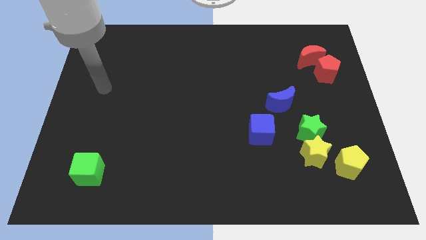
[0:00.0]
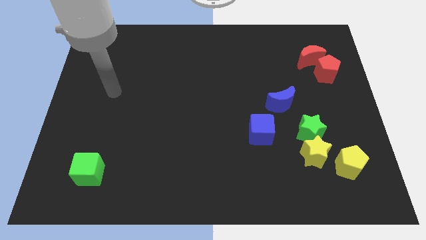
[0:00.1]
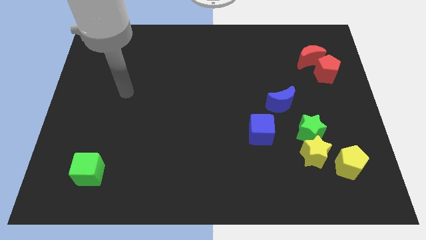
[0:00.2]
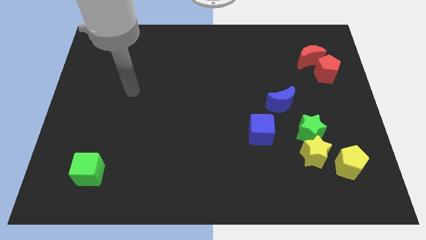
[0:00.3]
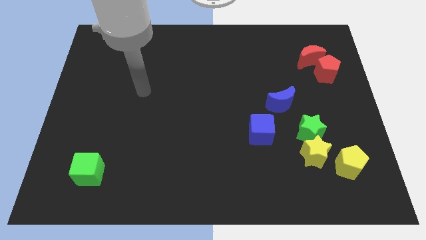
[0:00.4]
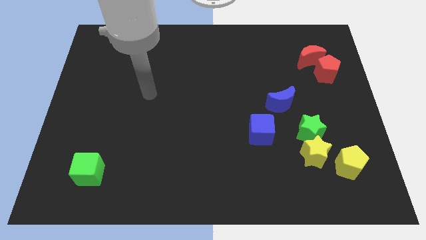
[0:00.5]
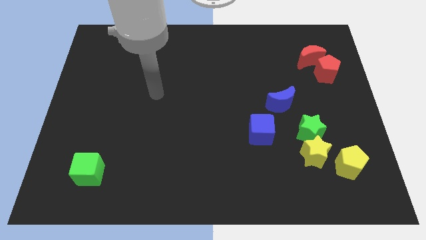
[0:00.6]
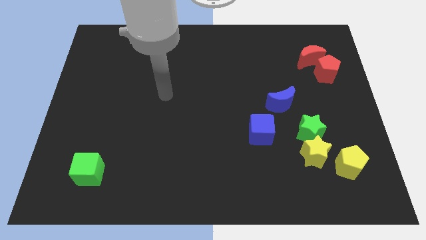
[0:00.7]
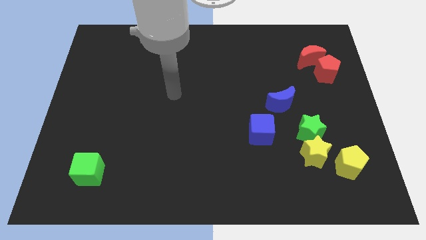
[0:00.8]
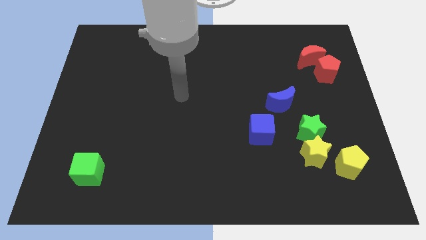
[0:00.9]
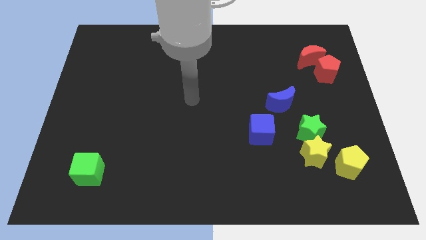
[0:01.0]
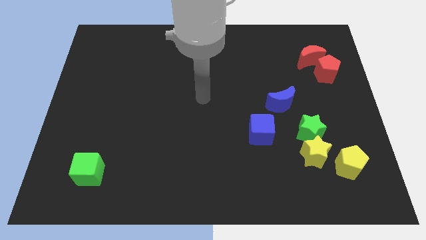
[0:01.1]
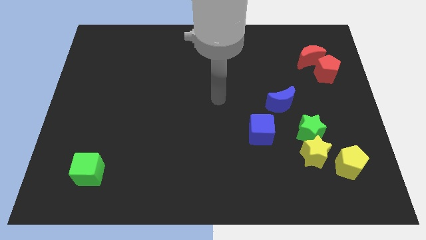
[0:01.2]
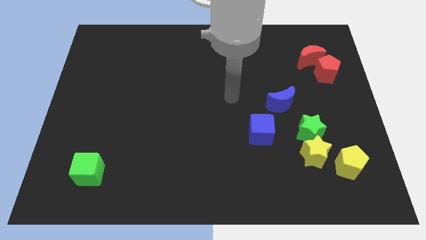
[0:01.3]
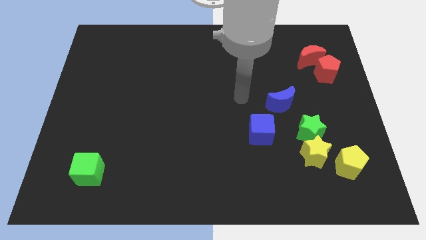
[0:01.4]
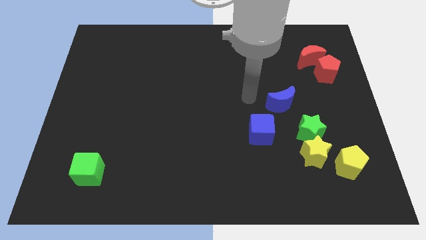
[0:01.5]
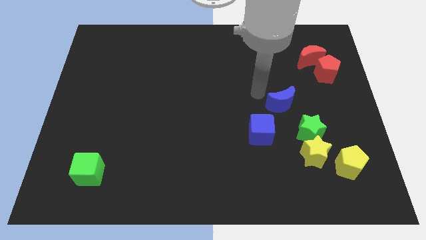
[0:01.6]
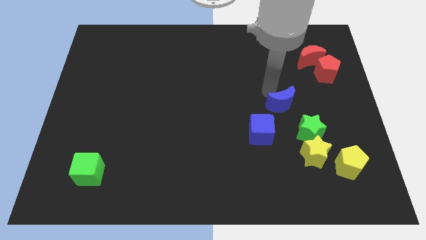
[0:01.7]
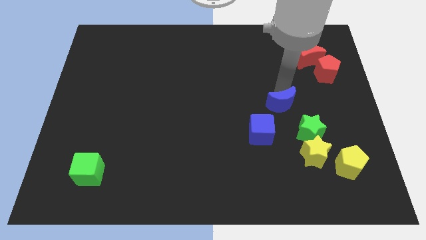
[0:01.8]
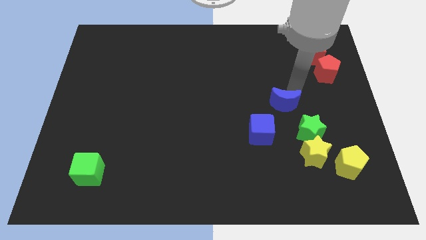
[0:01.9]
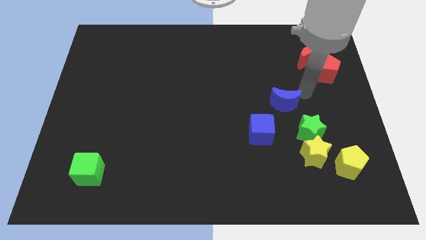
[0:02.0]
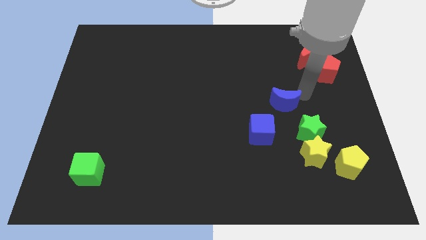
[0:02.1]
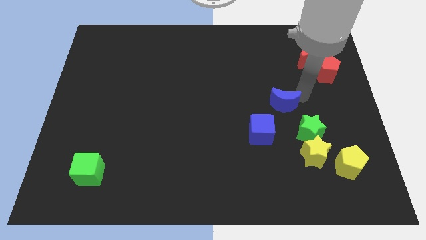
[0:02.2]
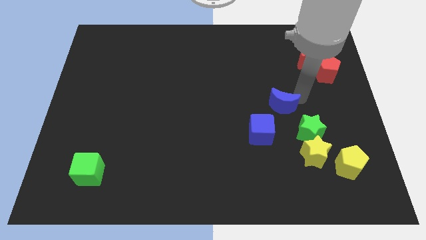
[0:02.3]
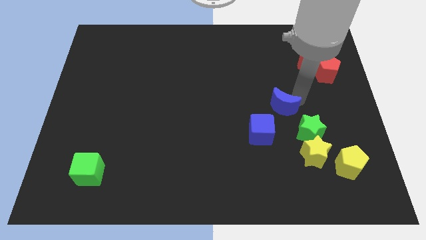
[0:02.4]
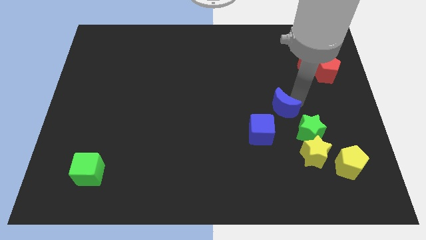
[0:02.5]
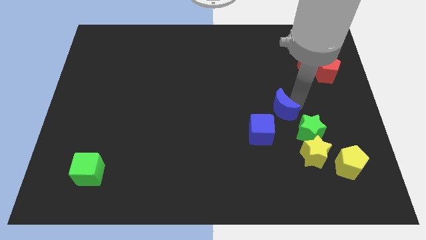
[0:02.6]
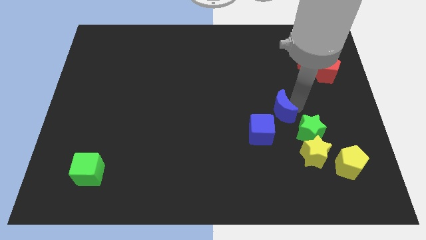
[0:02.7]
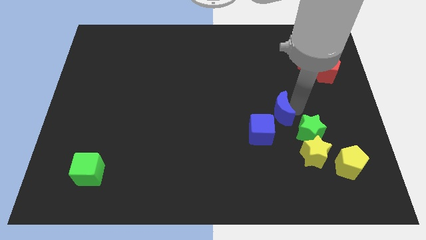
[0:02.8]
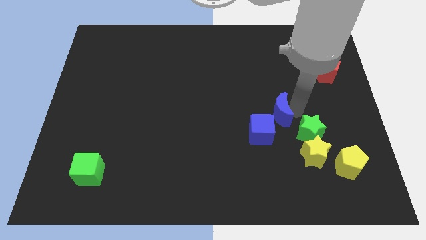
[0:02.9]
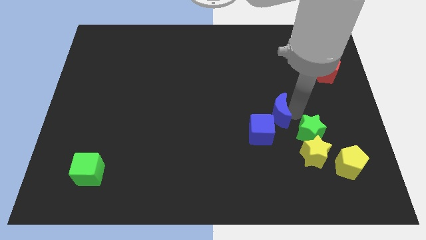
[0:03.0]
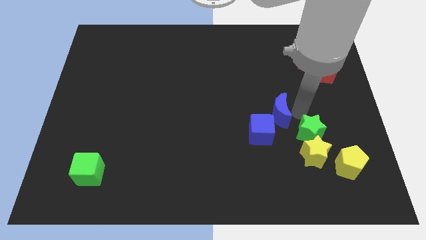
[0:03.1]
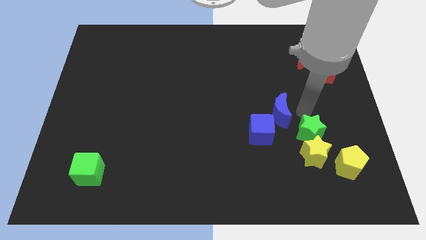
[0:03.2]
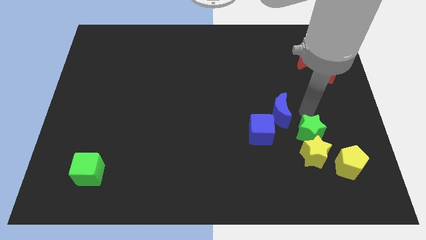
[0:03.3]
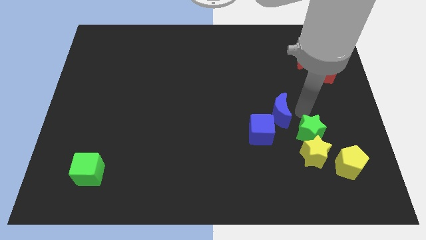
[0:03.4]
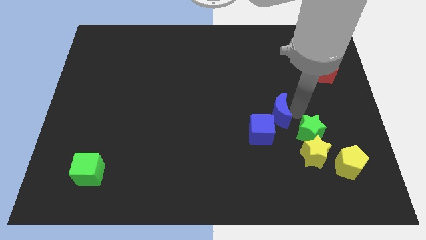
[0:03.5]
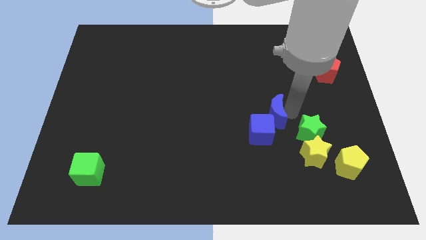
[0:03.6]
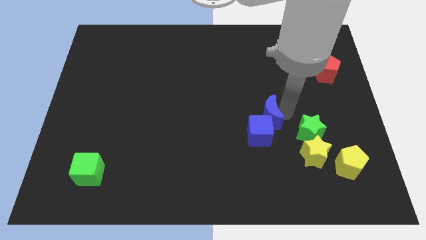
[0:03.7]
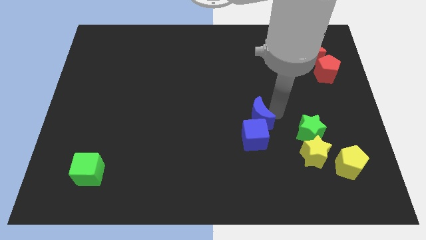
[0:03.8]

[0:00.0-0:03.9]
slightly slide the blue moon down and left diagonally

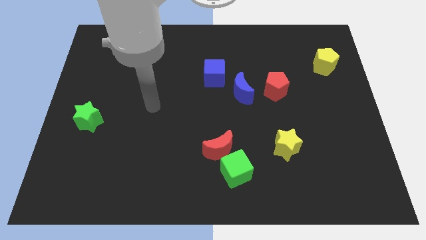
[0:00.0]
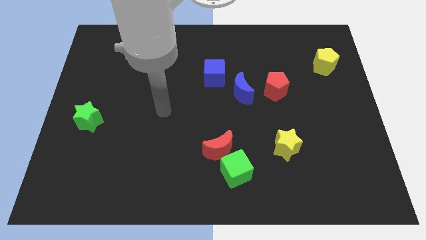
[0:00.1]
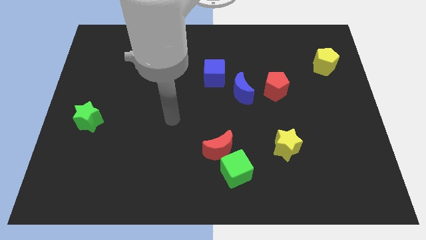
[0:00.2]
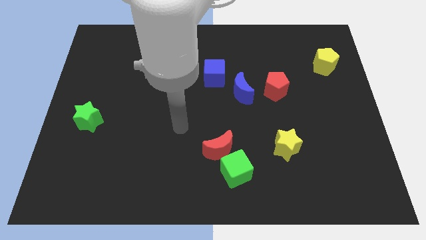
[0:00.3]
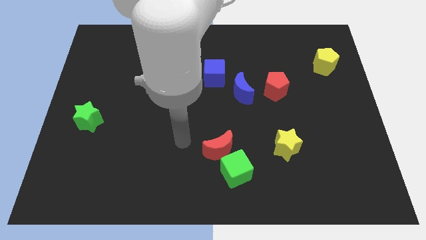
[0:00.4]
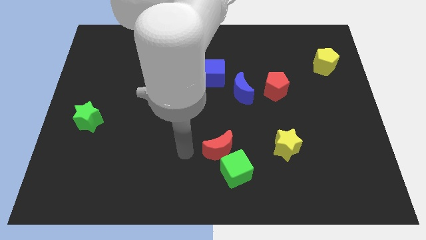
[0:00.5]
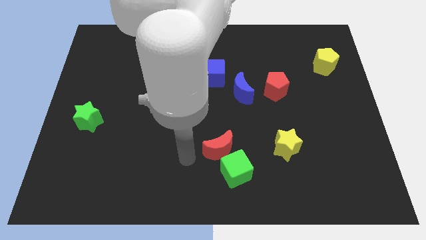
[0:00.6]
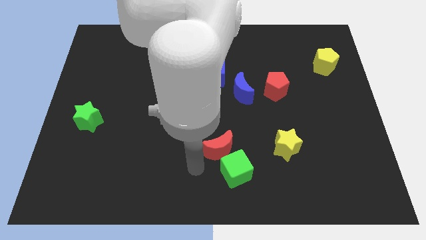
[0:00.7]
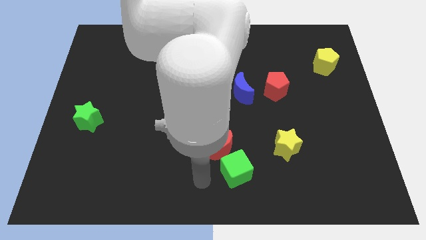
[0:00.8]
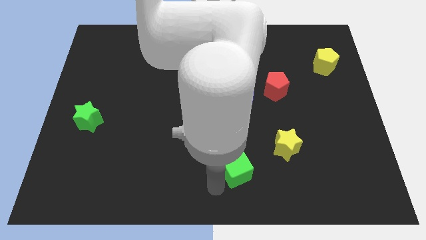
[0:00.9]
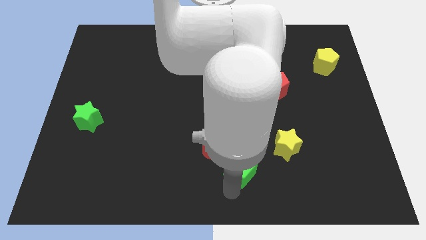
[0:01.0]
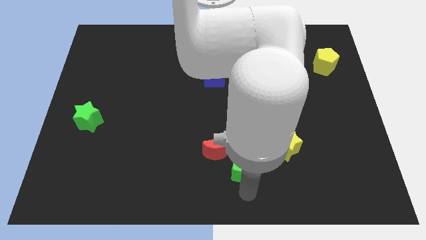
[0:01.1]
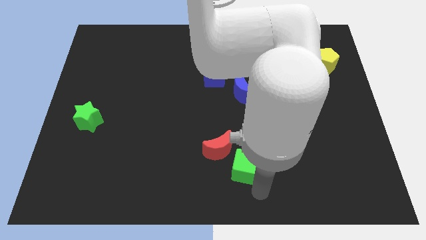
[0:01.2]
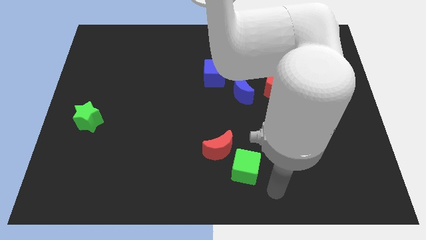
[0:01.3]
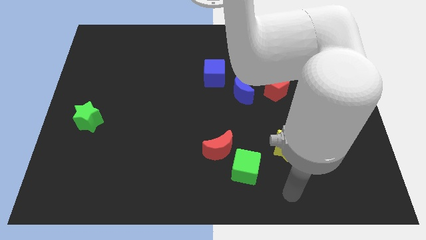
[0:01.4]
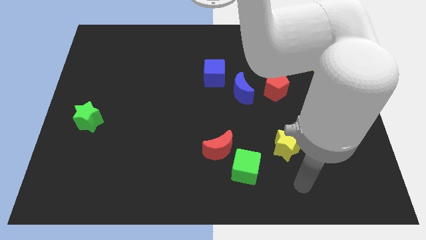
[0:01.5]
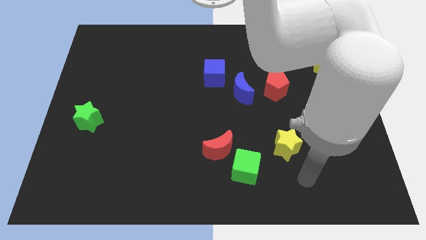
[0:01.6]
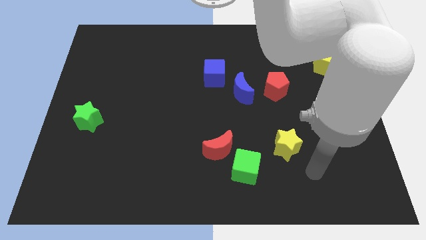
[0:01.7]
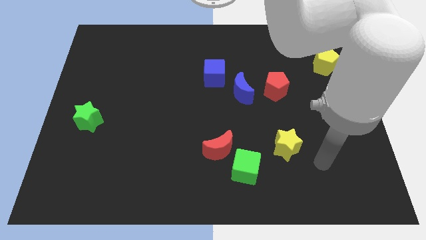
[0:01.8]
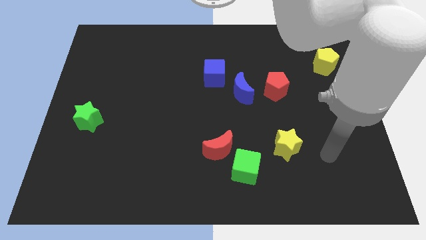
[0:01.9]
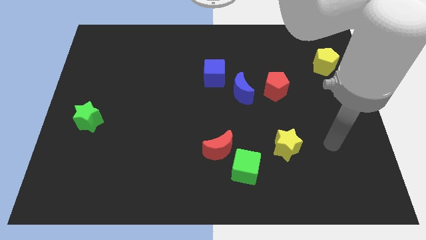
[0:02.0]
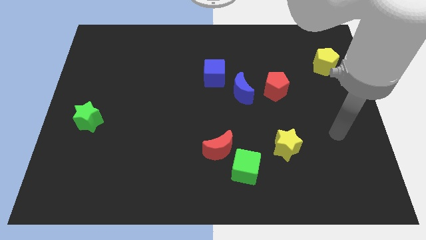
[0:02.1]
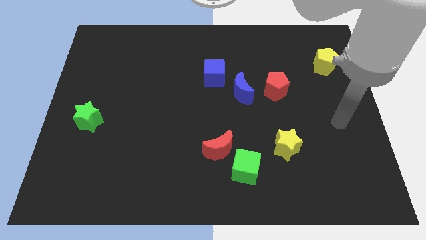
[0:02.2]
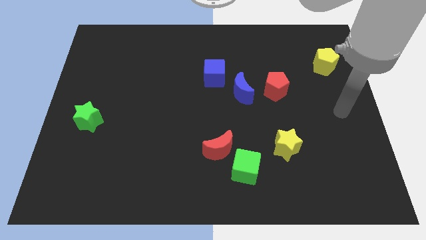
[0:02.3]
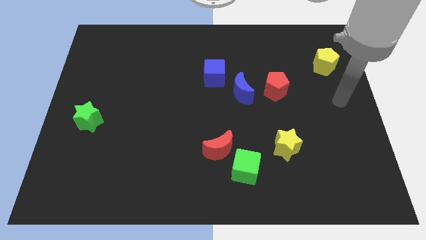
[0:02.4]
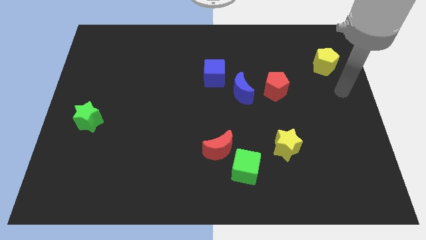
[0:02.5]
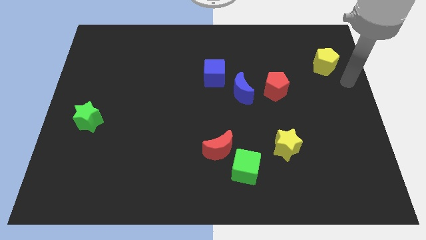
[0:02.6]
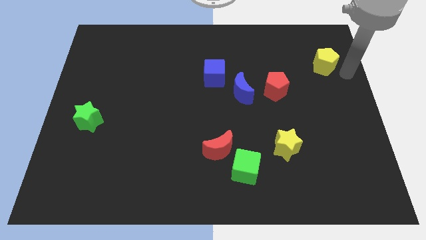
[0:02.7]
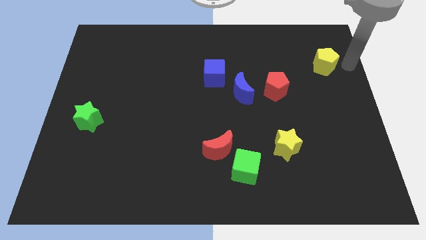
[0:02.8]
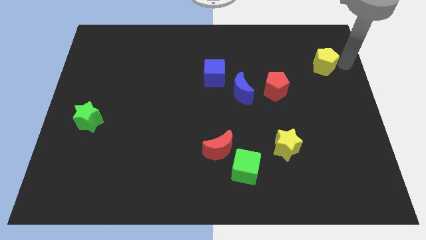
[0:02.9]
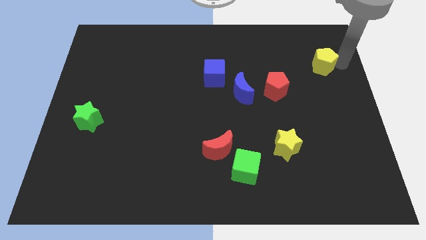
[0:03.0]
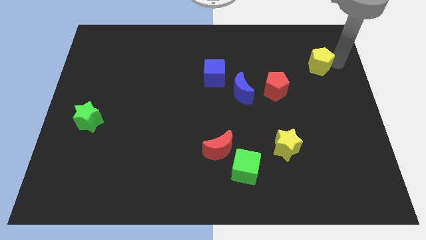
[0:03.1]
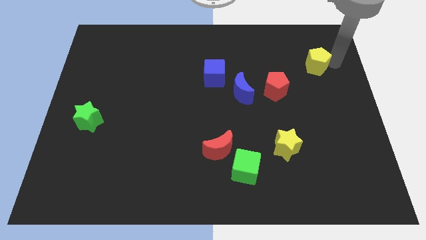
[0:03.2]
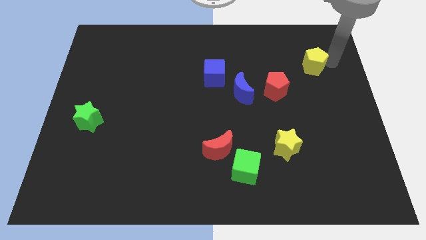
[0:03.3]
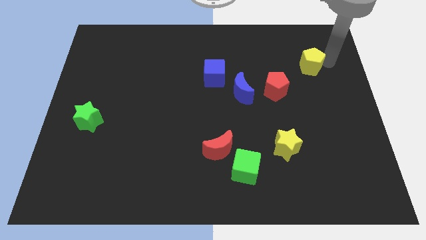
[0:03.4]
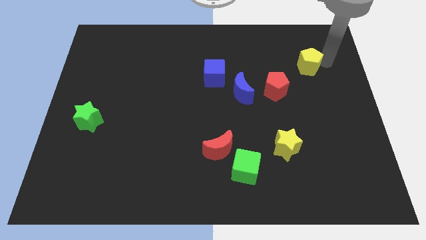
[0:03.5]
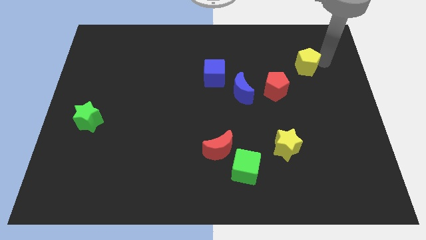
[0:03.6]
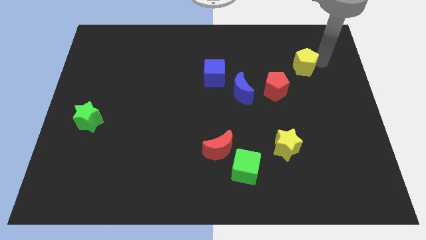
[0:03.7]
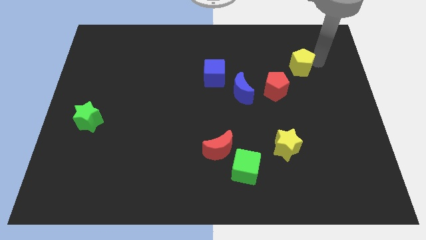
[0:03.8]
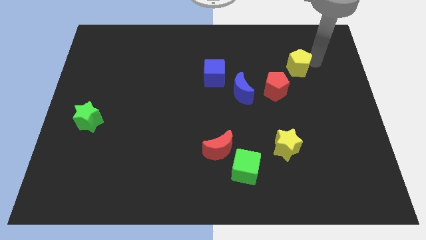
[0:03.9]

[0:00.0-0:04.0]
slightly push the yellow pentagon left

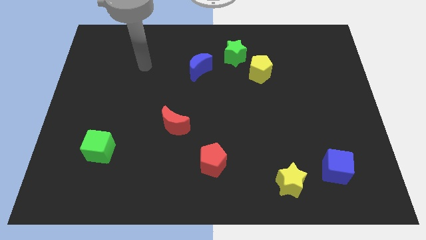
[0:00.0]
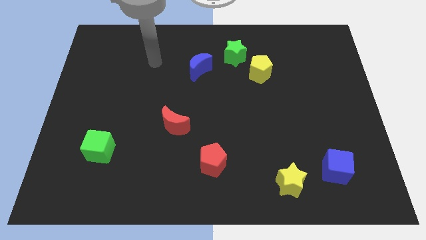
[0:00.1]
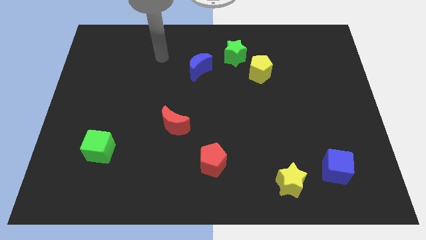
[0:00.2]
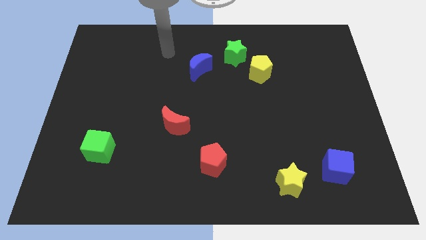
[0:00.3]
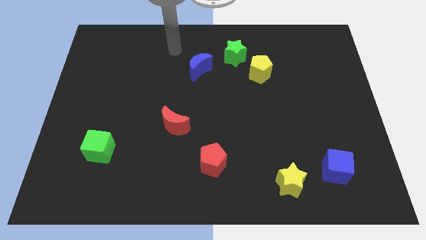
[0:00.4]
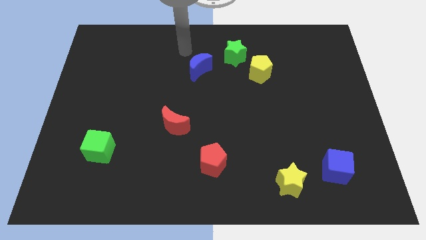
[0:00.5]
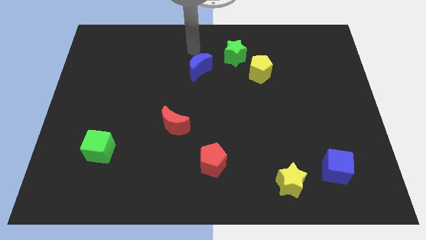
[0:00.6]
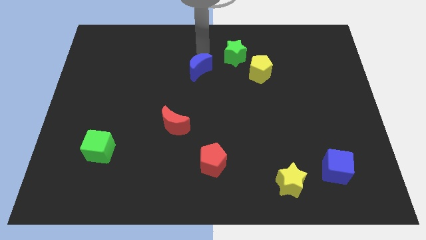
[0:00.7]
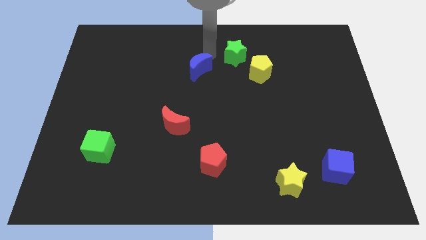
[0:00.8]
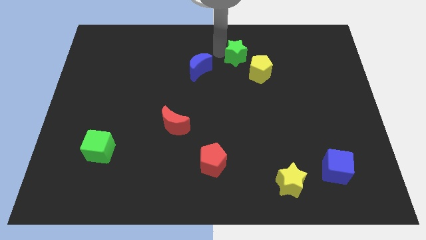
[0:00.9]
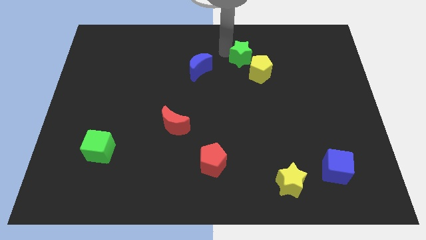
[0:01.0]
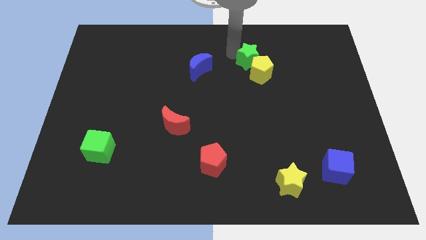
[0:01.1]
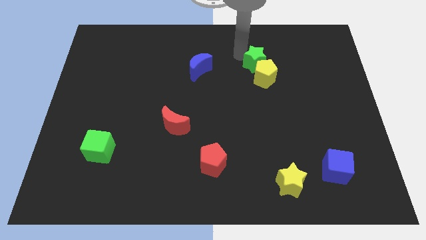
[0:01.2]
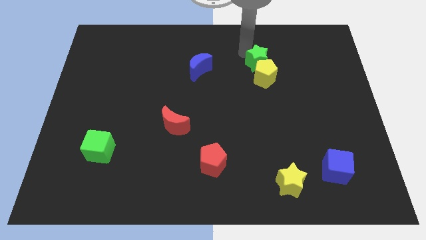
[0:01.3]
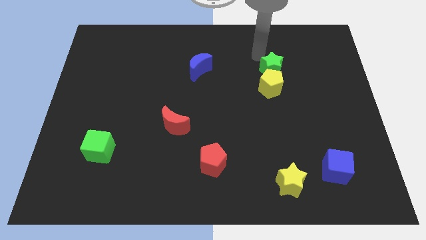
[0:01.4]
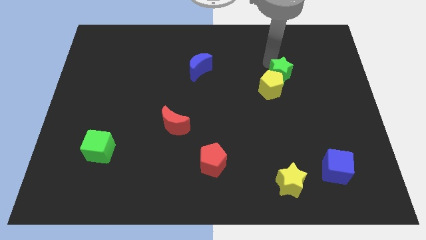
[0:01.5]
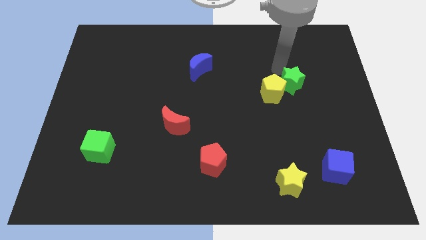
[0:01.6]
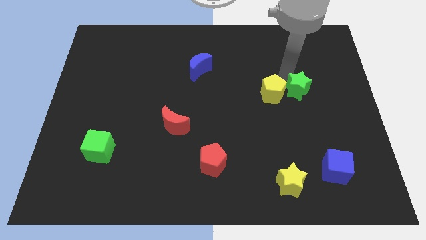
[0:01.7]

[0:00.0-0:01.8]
slightly move the yellow pentagon downwards
